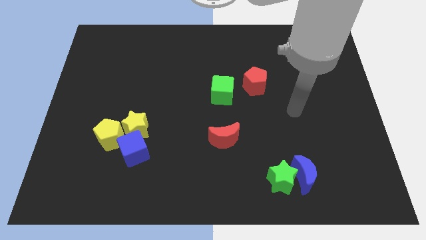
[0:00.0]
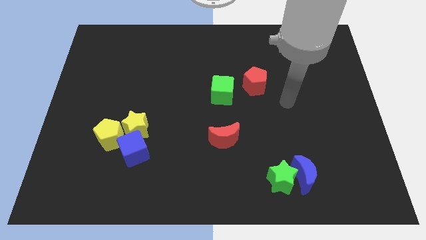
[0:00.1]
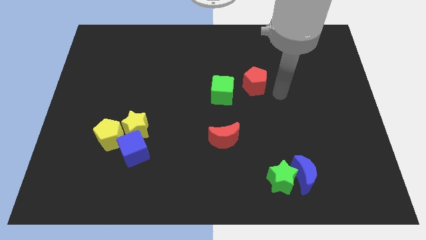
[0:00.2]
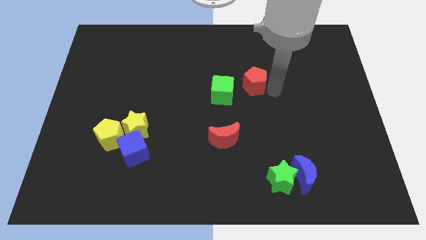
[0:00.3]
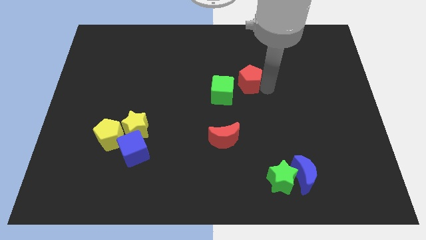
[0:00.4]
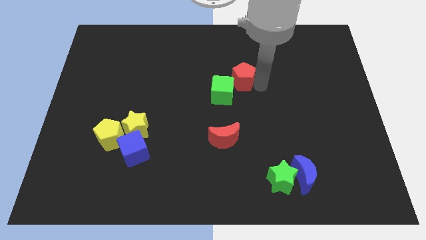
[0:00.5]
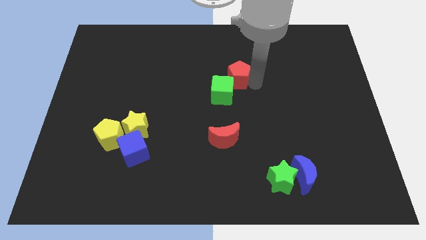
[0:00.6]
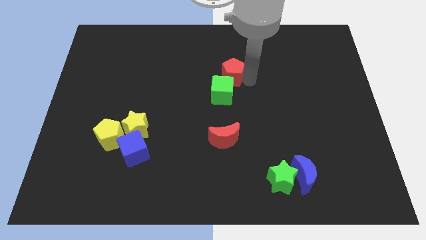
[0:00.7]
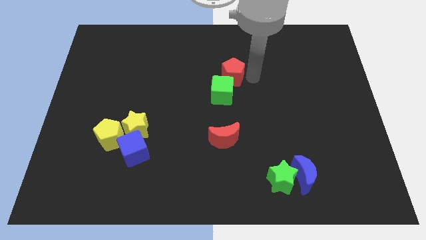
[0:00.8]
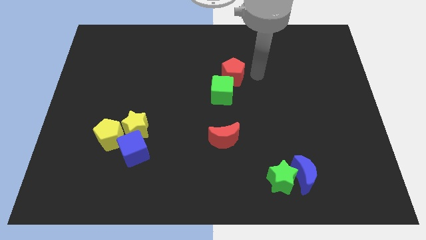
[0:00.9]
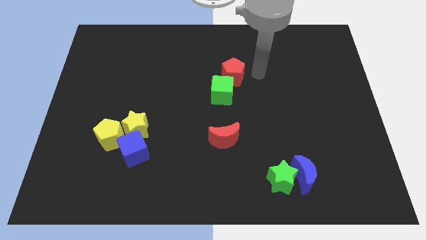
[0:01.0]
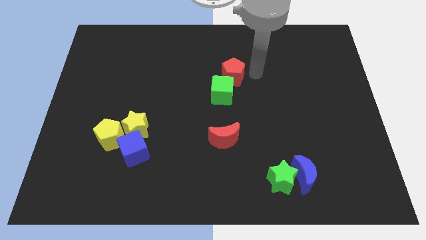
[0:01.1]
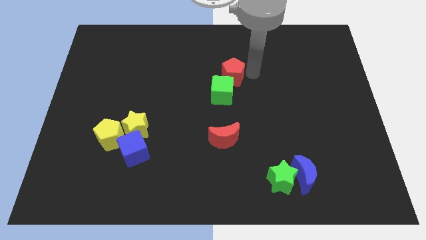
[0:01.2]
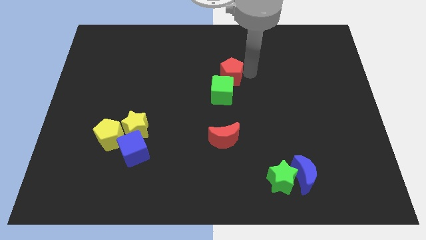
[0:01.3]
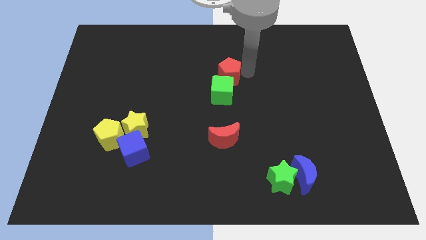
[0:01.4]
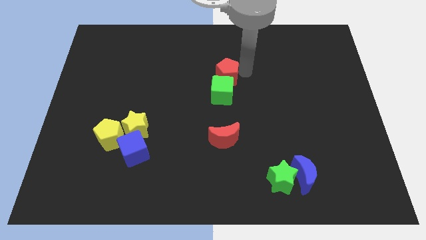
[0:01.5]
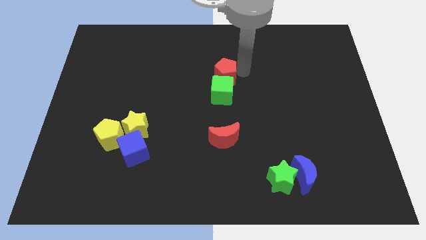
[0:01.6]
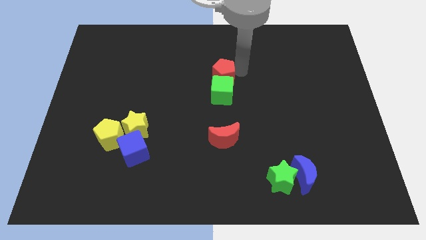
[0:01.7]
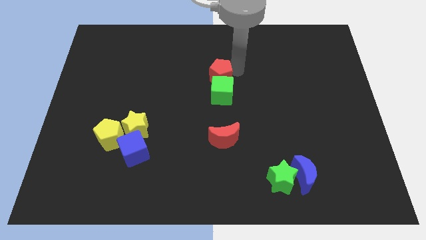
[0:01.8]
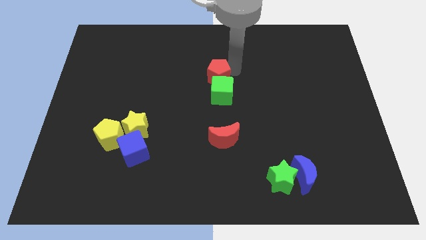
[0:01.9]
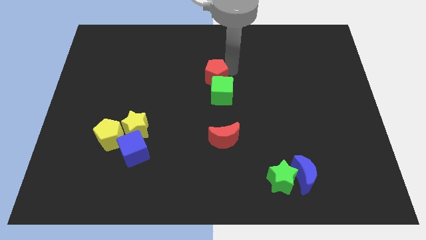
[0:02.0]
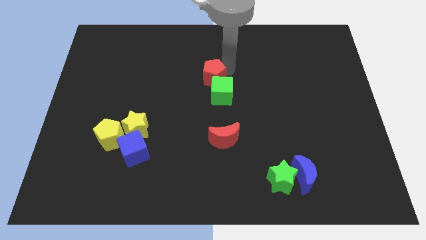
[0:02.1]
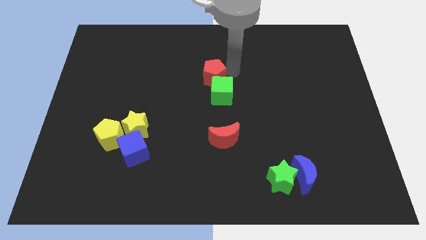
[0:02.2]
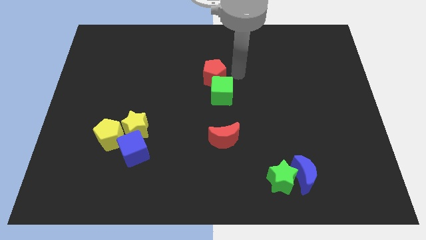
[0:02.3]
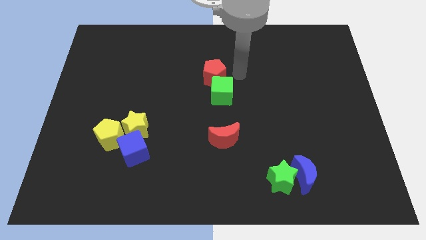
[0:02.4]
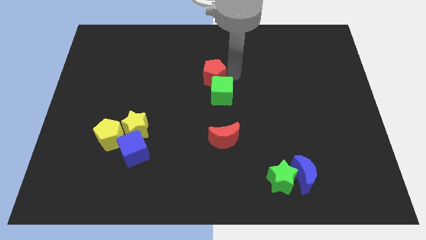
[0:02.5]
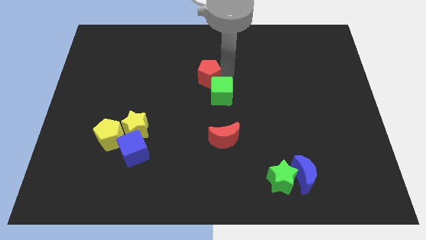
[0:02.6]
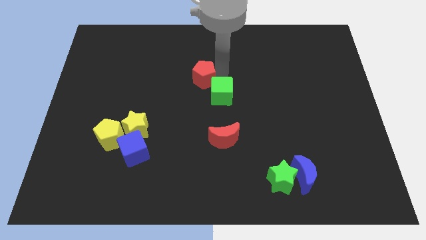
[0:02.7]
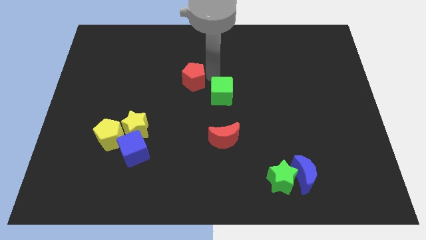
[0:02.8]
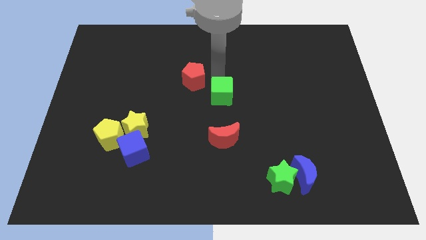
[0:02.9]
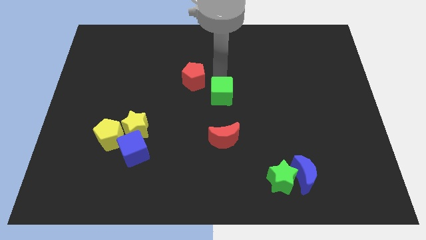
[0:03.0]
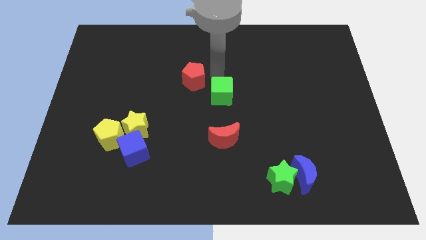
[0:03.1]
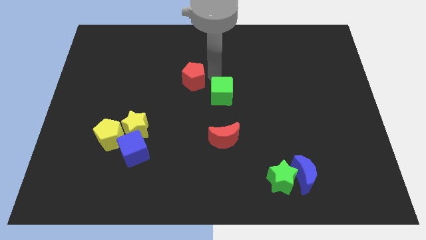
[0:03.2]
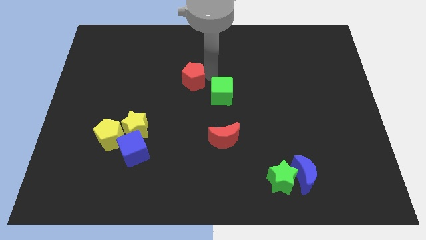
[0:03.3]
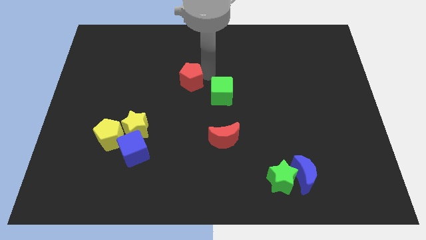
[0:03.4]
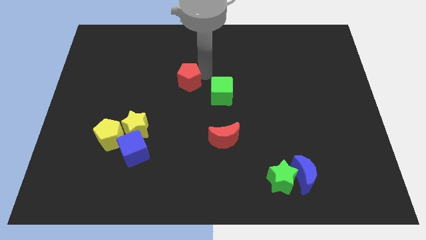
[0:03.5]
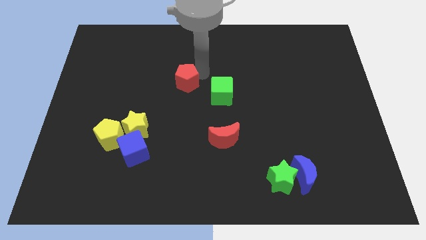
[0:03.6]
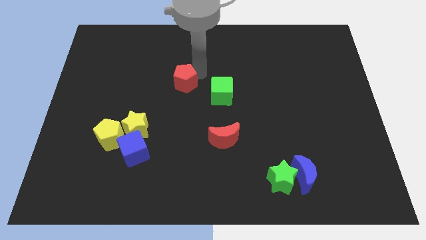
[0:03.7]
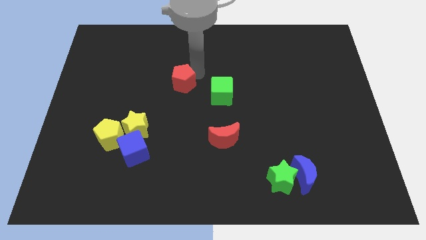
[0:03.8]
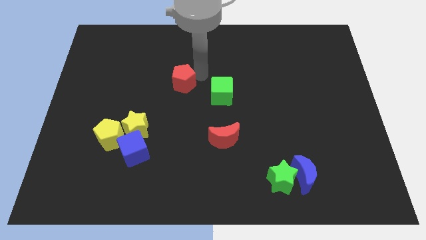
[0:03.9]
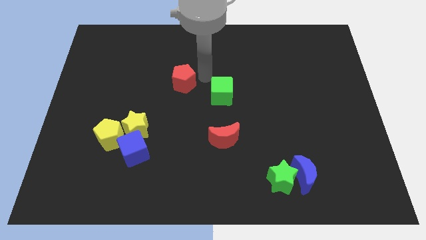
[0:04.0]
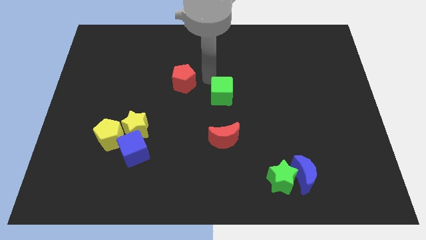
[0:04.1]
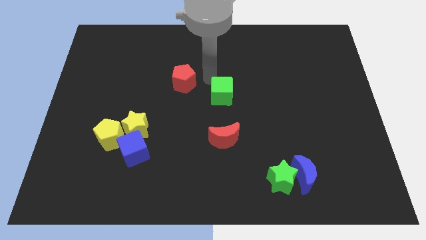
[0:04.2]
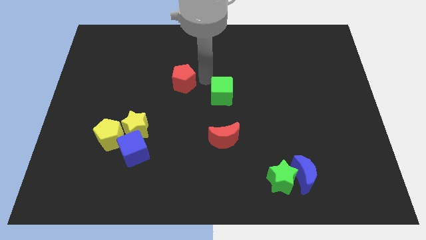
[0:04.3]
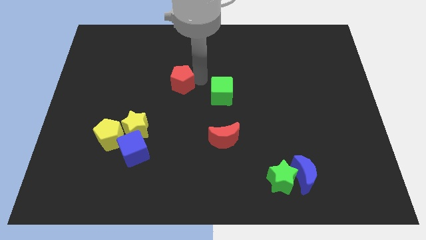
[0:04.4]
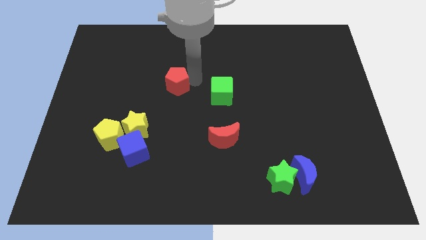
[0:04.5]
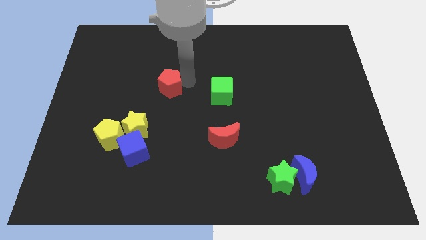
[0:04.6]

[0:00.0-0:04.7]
slide the red pentagon to the left

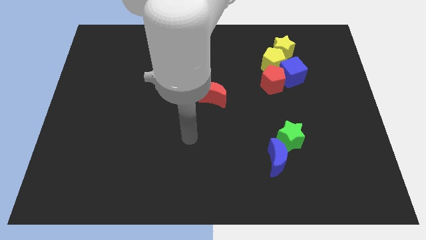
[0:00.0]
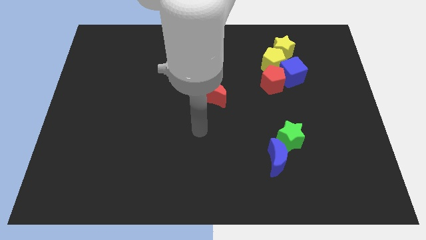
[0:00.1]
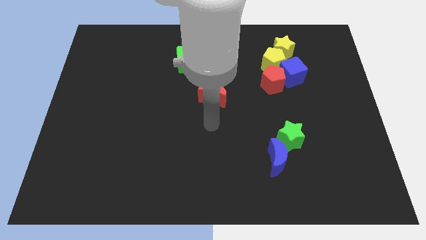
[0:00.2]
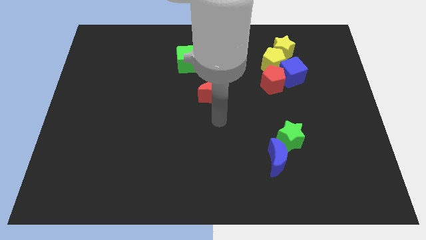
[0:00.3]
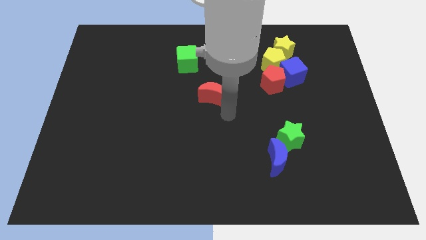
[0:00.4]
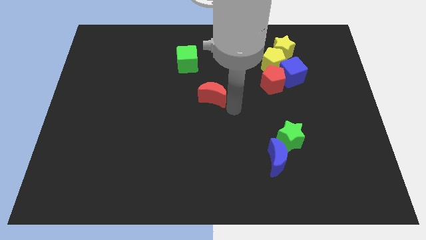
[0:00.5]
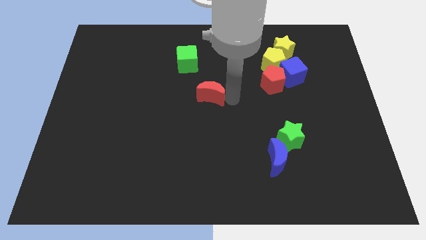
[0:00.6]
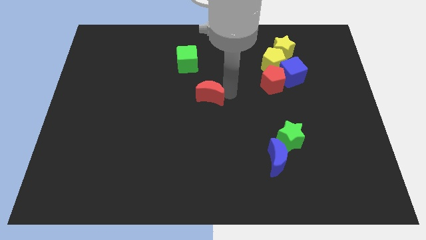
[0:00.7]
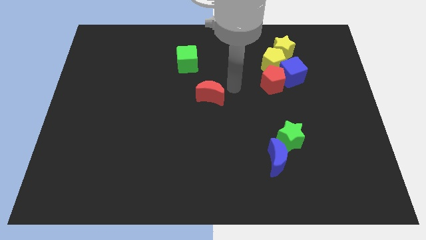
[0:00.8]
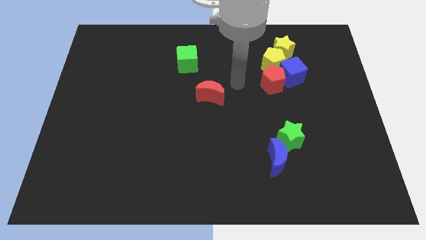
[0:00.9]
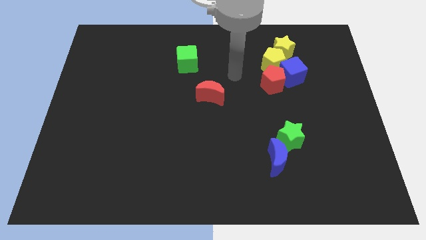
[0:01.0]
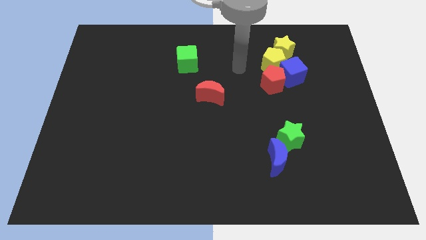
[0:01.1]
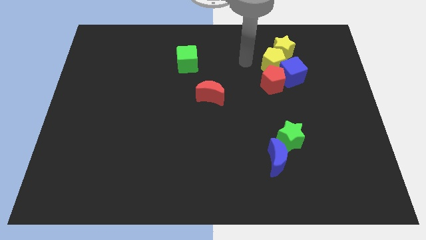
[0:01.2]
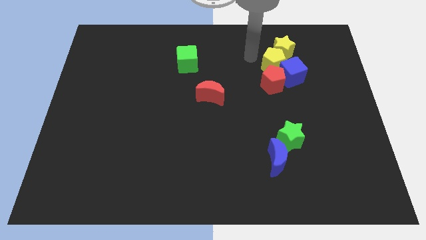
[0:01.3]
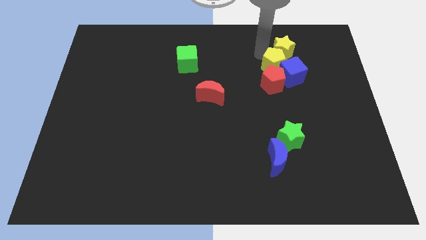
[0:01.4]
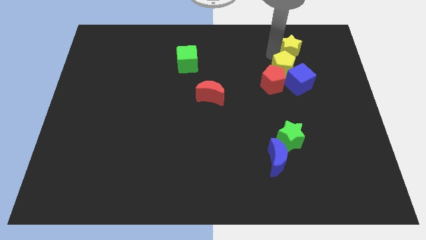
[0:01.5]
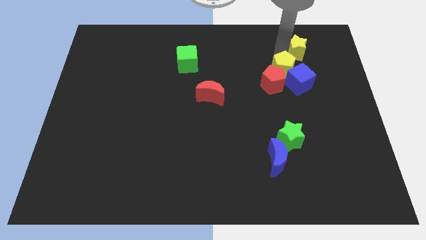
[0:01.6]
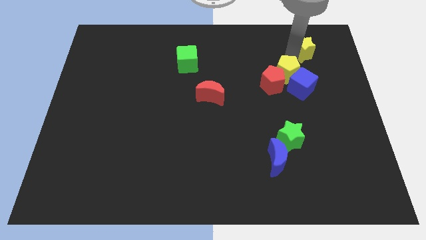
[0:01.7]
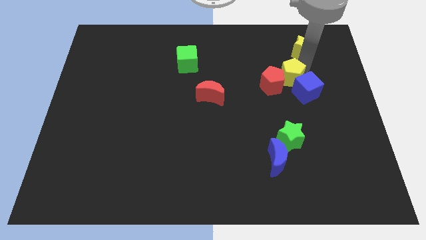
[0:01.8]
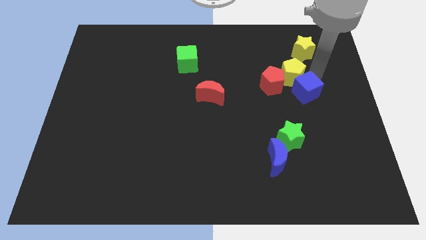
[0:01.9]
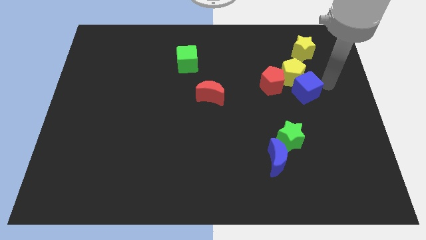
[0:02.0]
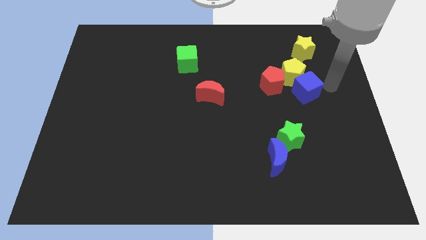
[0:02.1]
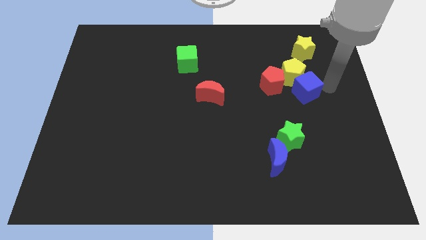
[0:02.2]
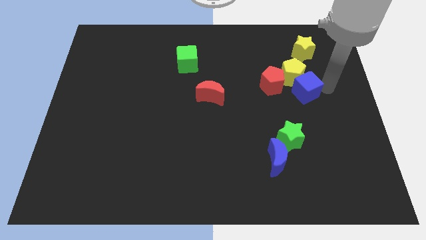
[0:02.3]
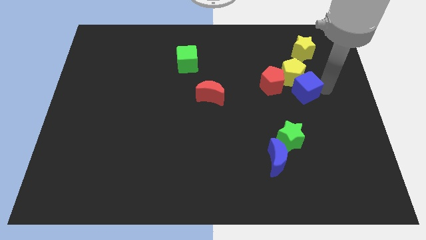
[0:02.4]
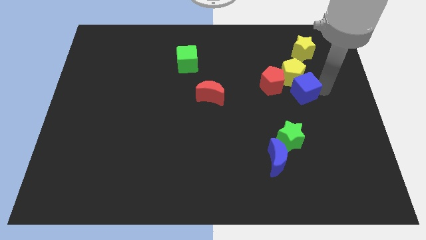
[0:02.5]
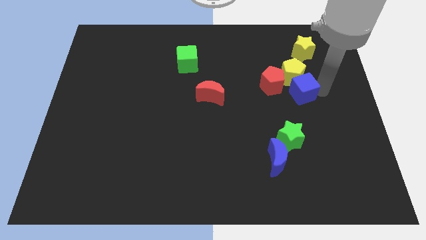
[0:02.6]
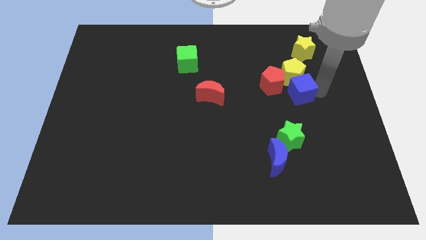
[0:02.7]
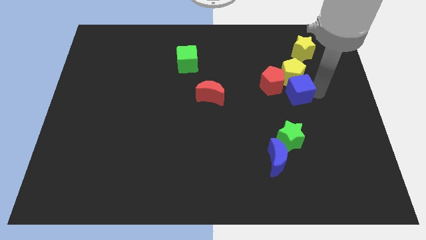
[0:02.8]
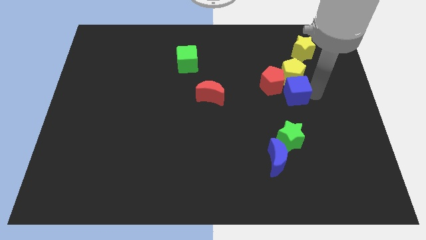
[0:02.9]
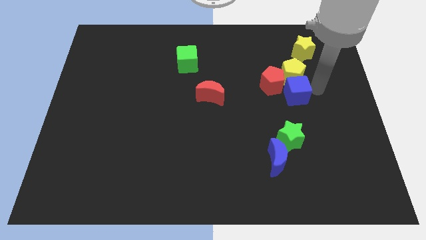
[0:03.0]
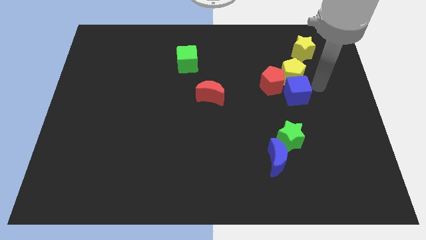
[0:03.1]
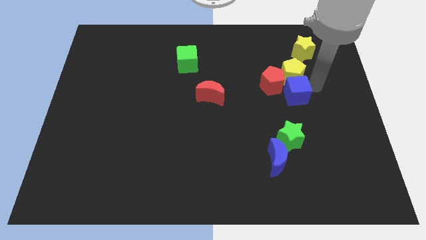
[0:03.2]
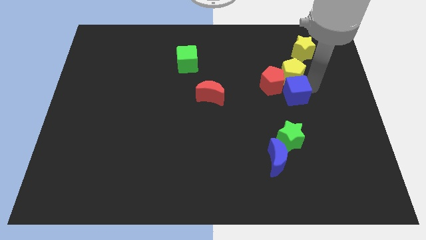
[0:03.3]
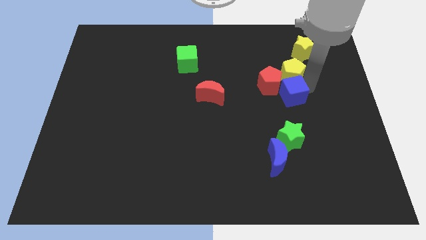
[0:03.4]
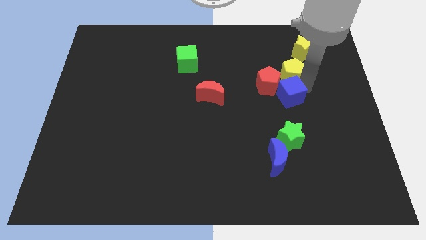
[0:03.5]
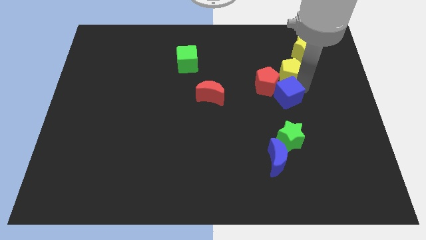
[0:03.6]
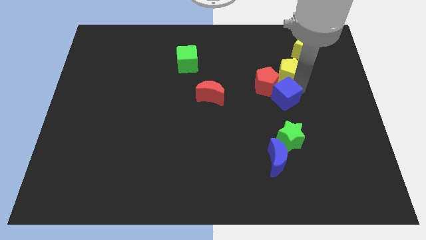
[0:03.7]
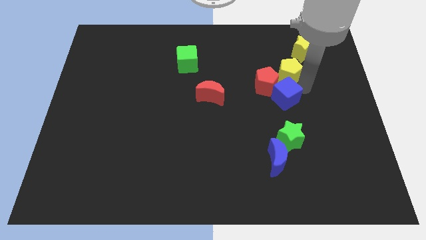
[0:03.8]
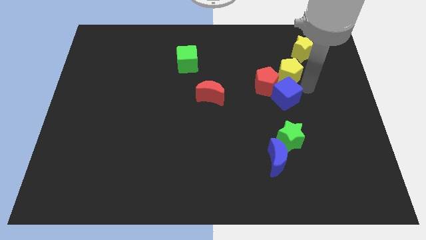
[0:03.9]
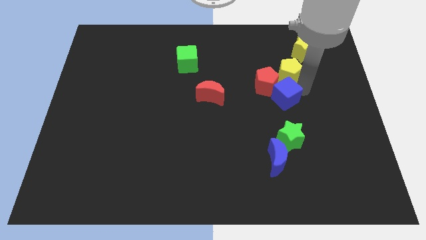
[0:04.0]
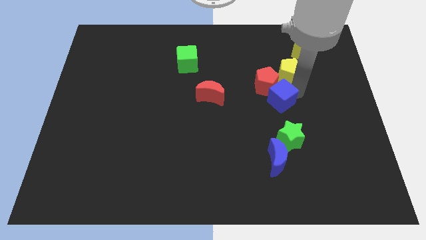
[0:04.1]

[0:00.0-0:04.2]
slide the blue cube diagonally downwards and to the left somewhat
